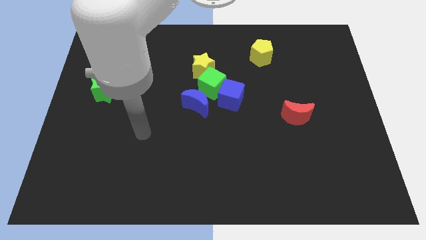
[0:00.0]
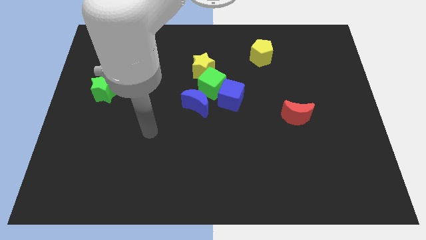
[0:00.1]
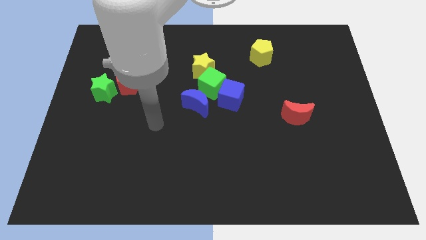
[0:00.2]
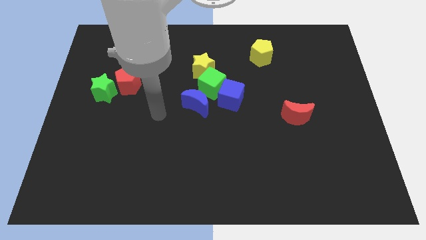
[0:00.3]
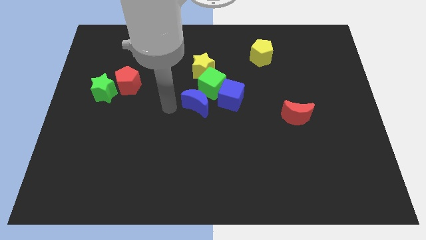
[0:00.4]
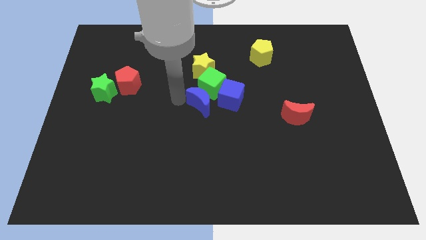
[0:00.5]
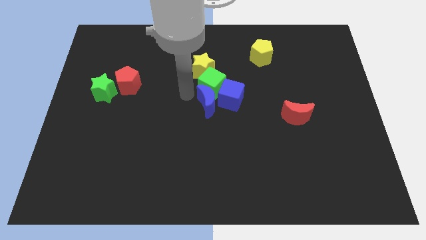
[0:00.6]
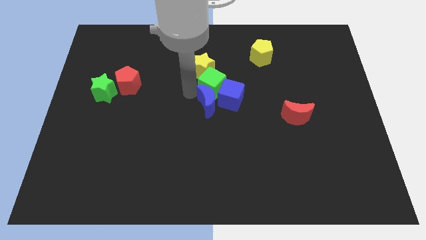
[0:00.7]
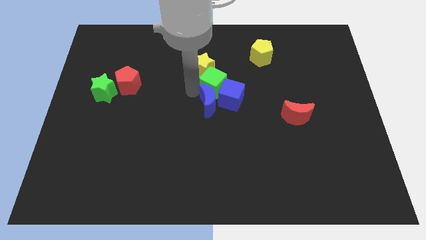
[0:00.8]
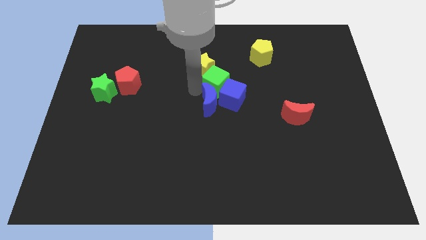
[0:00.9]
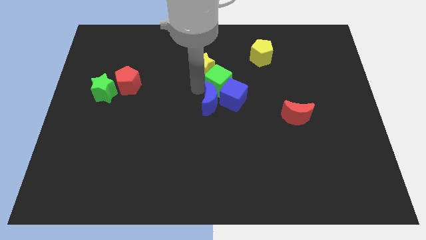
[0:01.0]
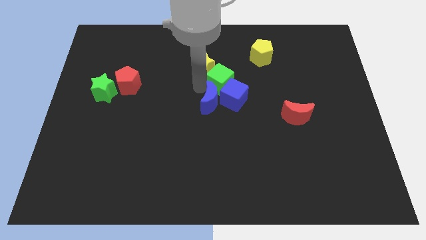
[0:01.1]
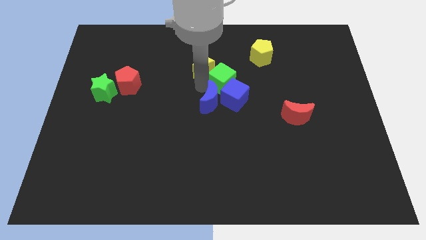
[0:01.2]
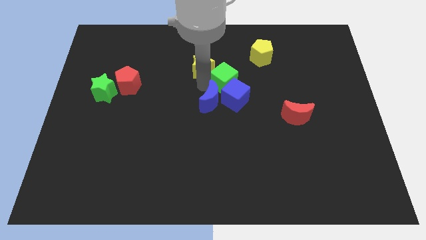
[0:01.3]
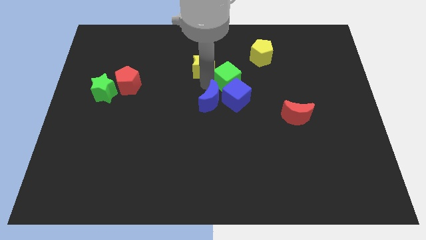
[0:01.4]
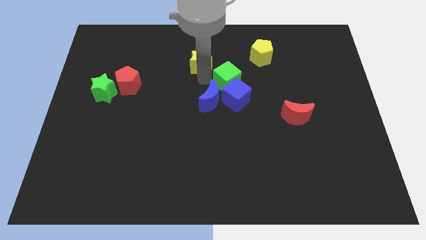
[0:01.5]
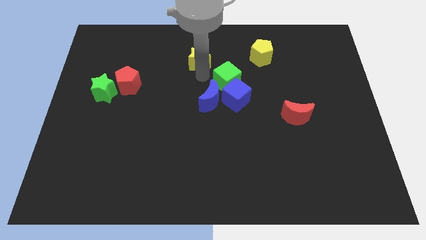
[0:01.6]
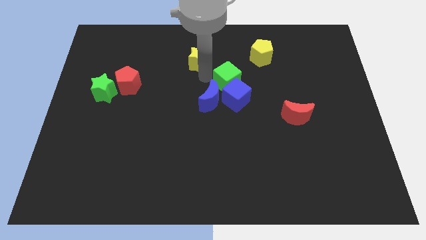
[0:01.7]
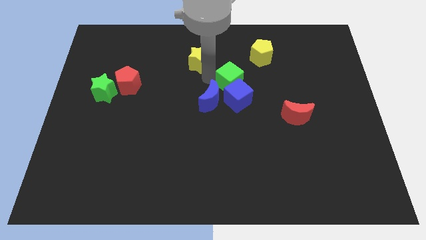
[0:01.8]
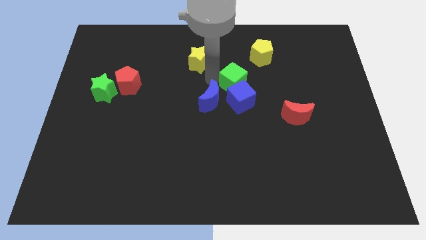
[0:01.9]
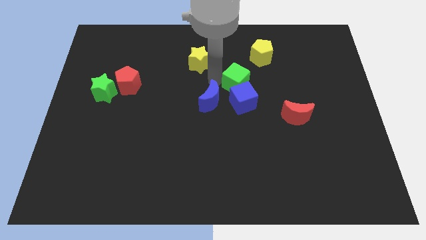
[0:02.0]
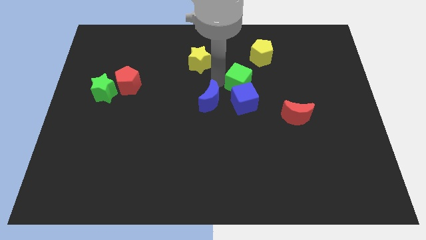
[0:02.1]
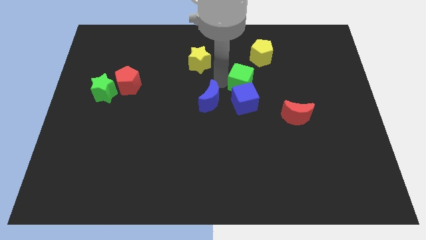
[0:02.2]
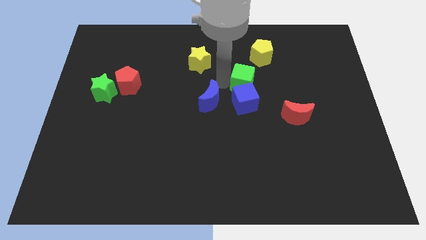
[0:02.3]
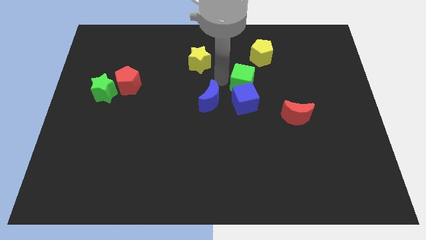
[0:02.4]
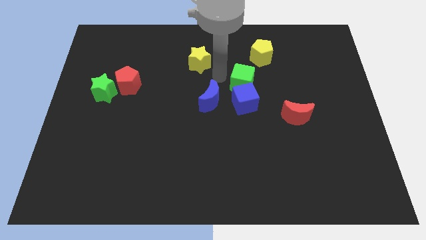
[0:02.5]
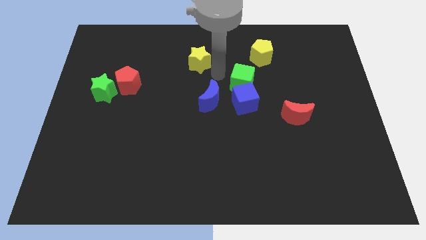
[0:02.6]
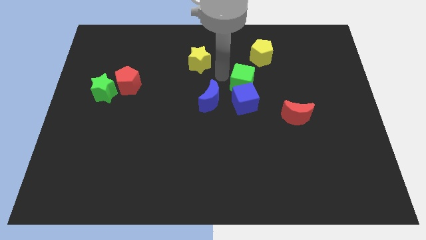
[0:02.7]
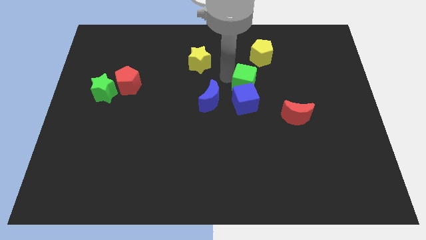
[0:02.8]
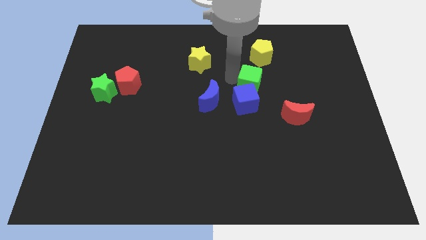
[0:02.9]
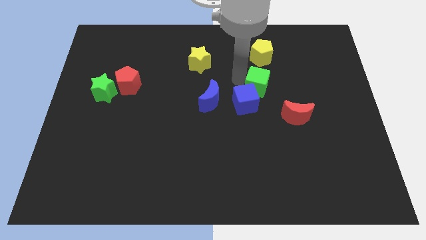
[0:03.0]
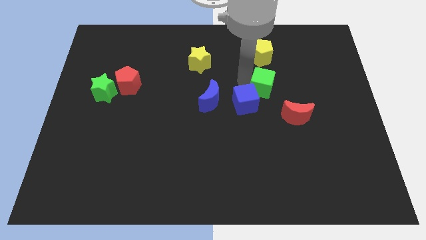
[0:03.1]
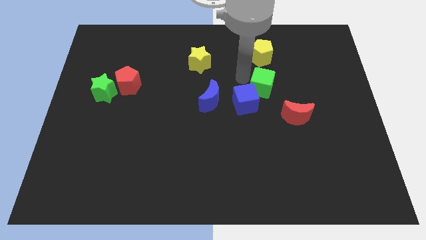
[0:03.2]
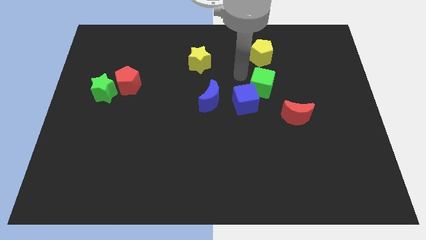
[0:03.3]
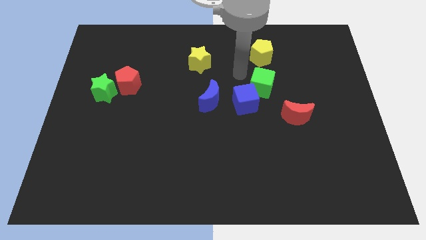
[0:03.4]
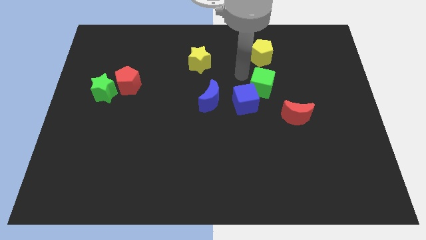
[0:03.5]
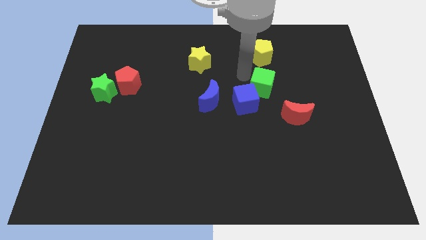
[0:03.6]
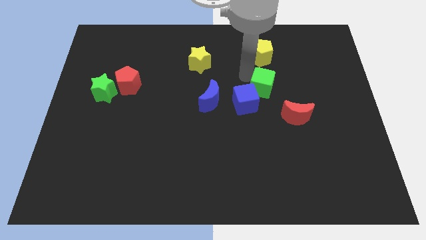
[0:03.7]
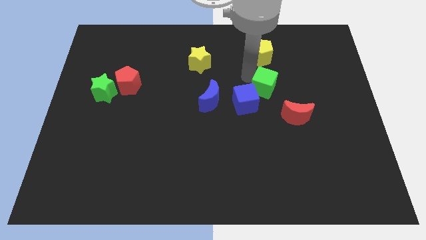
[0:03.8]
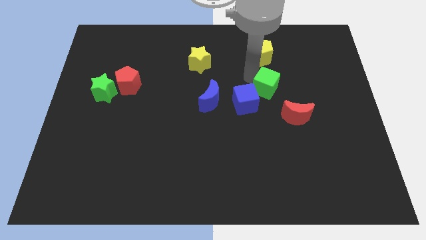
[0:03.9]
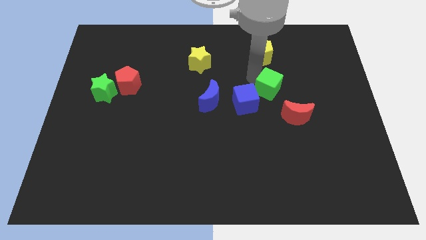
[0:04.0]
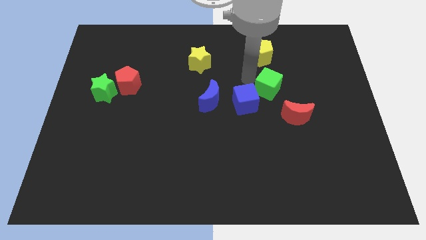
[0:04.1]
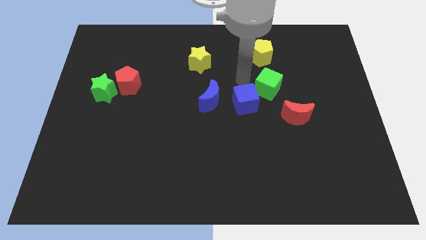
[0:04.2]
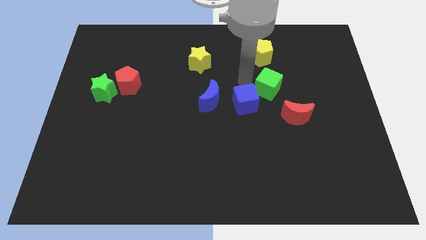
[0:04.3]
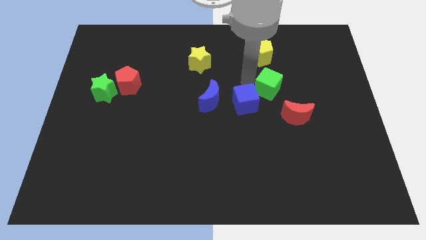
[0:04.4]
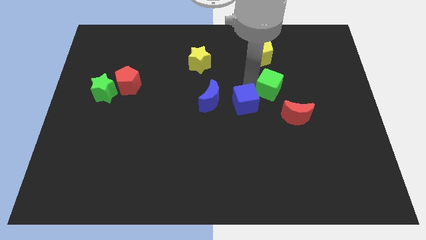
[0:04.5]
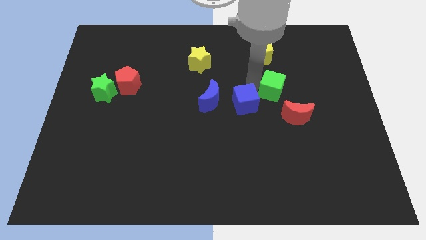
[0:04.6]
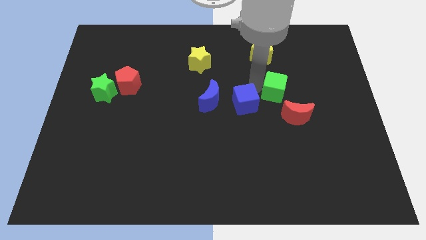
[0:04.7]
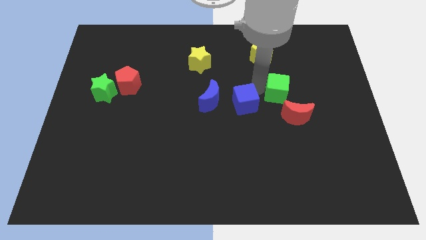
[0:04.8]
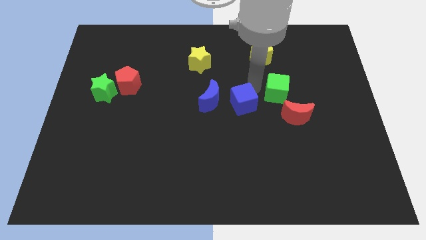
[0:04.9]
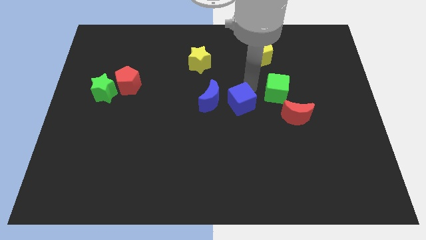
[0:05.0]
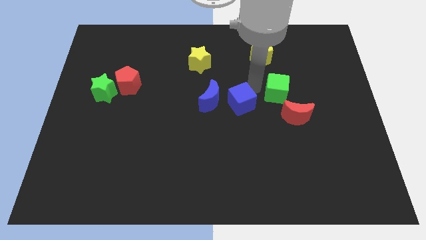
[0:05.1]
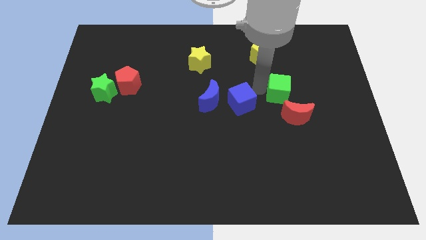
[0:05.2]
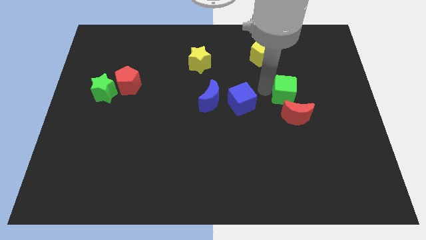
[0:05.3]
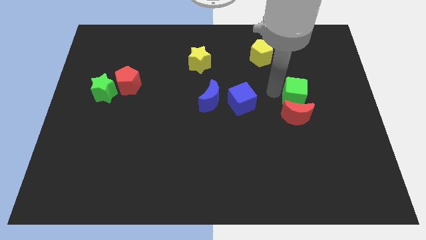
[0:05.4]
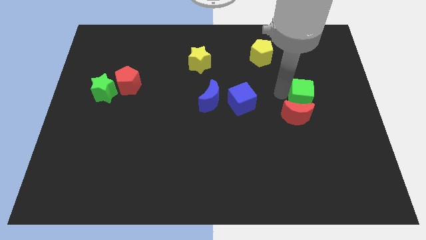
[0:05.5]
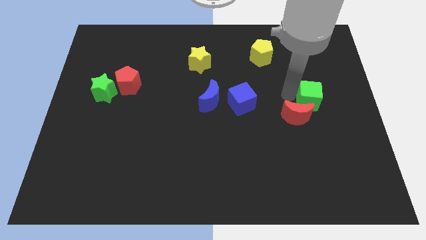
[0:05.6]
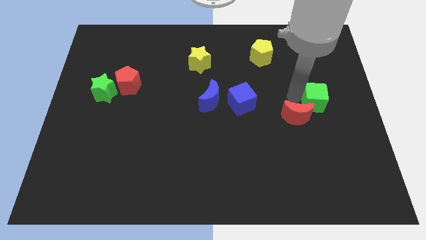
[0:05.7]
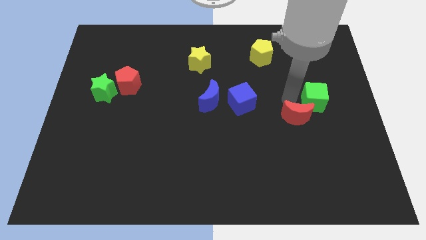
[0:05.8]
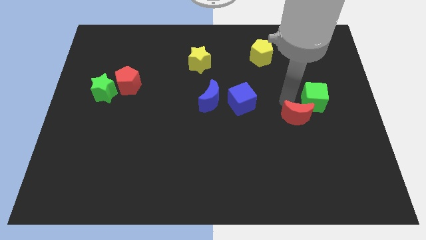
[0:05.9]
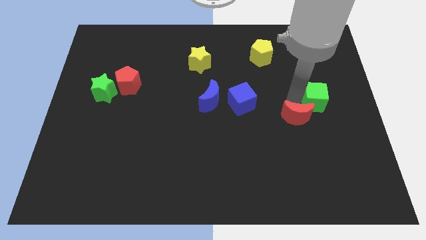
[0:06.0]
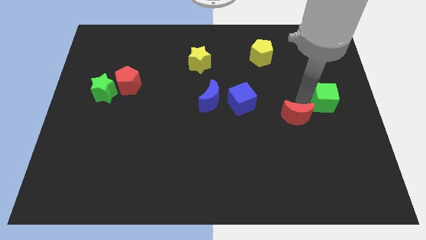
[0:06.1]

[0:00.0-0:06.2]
move the green cube to the center right
